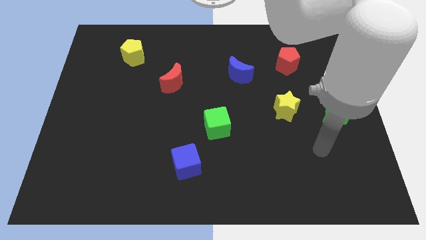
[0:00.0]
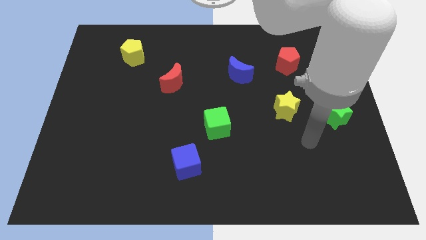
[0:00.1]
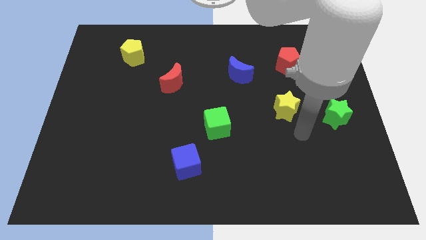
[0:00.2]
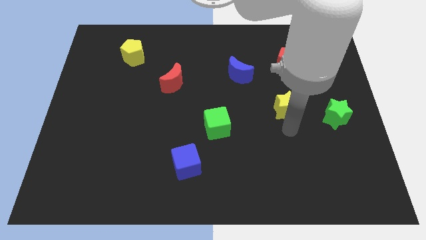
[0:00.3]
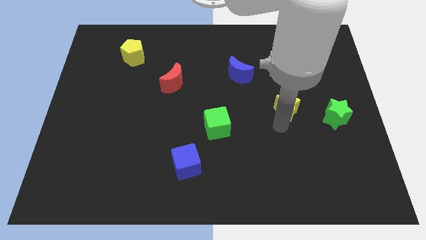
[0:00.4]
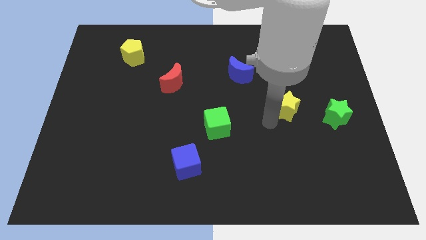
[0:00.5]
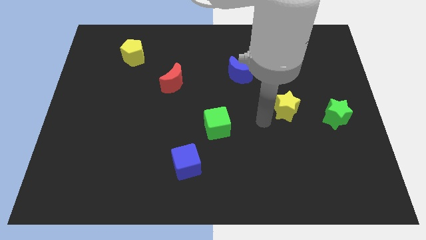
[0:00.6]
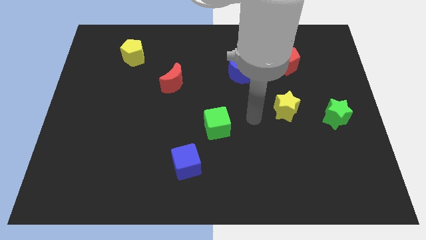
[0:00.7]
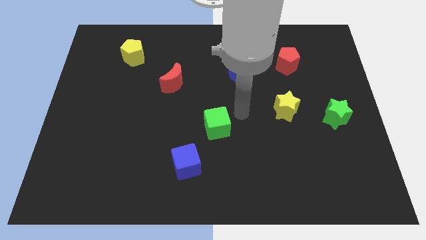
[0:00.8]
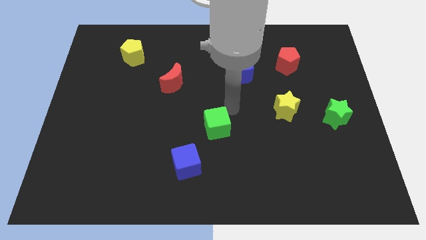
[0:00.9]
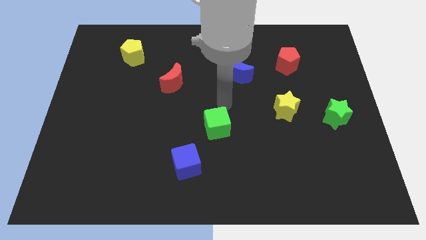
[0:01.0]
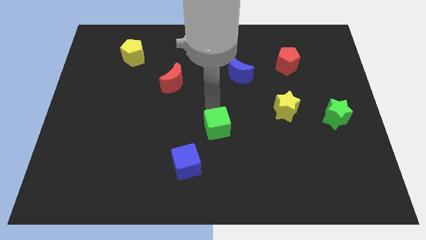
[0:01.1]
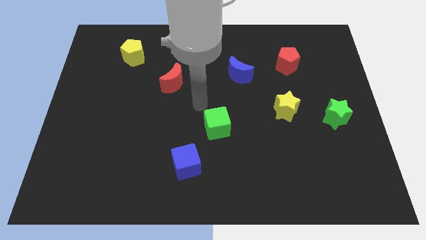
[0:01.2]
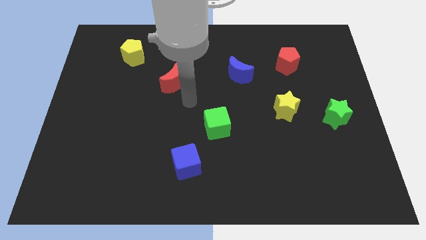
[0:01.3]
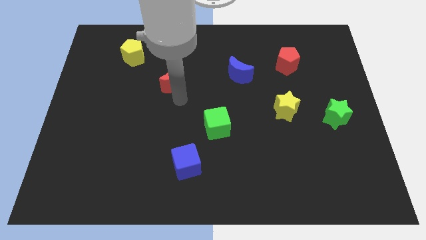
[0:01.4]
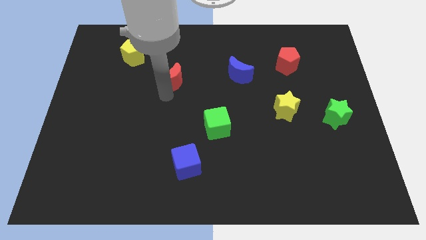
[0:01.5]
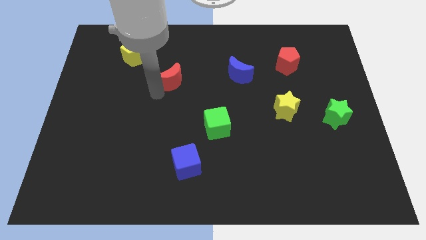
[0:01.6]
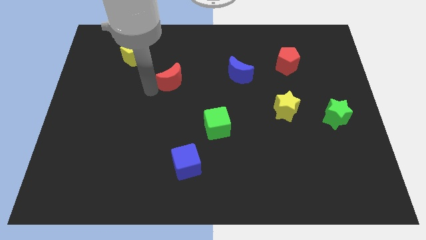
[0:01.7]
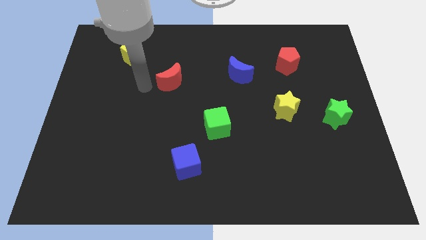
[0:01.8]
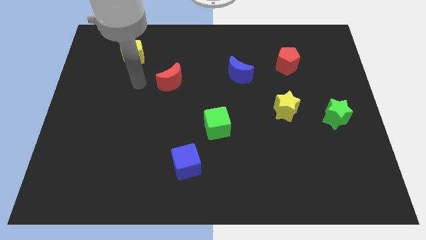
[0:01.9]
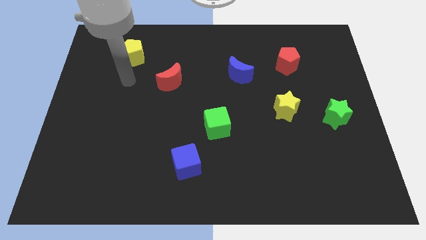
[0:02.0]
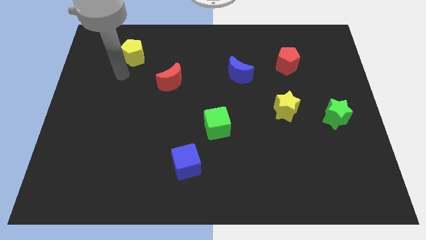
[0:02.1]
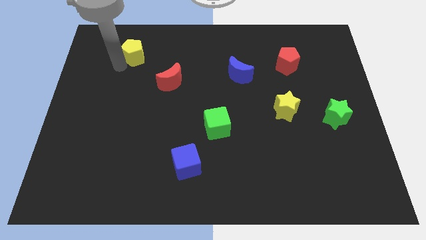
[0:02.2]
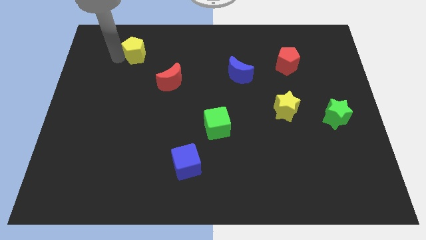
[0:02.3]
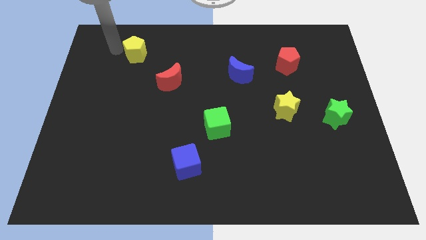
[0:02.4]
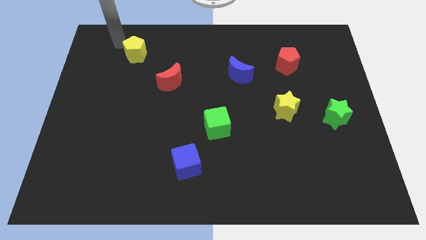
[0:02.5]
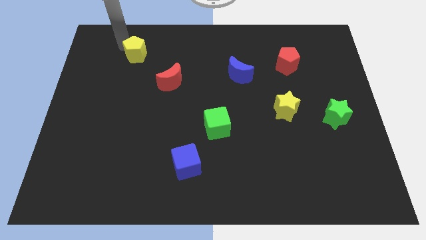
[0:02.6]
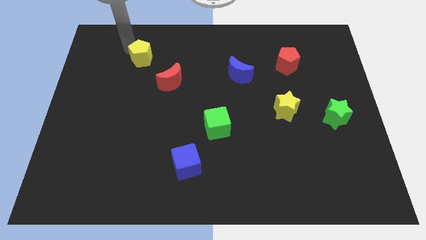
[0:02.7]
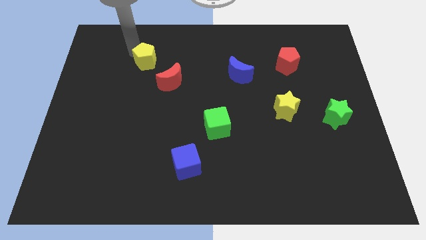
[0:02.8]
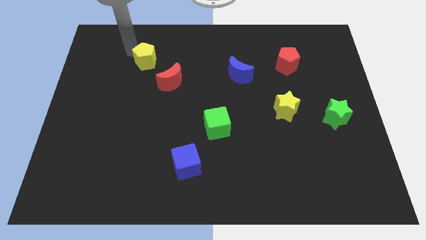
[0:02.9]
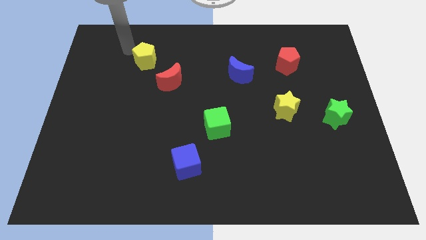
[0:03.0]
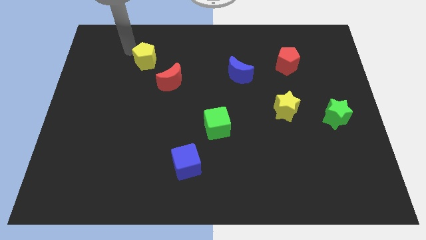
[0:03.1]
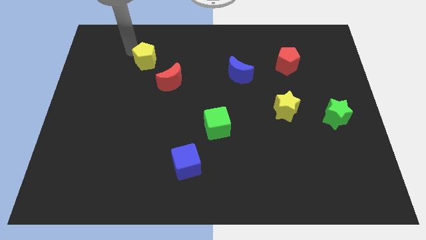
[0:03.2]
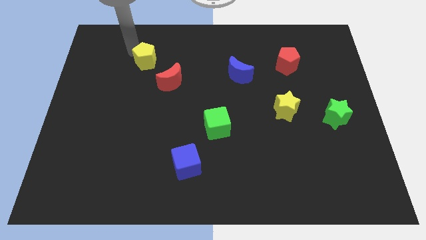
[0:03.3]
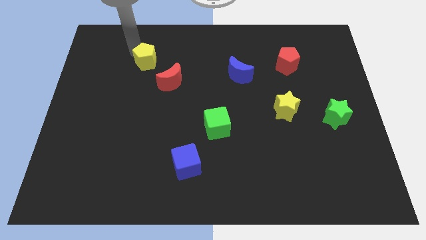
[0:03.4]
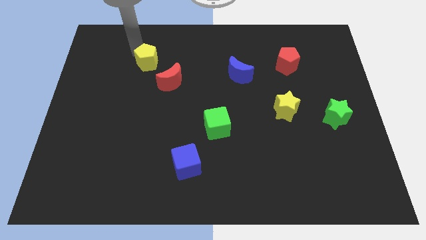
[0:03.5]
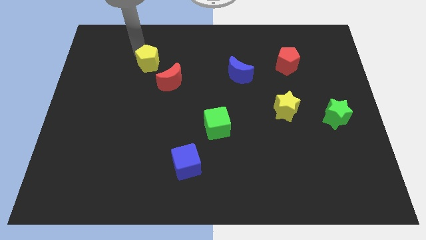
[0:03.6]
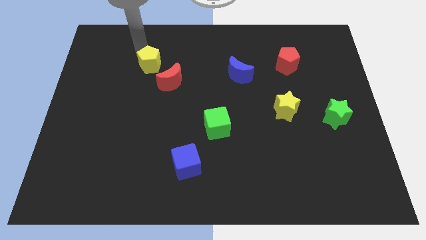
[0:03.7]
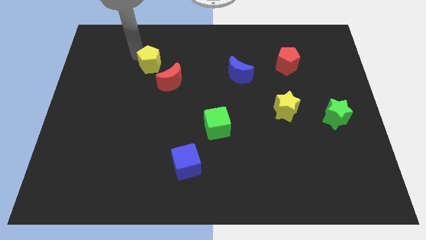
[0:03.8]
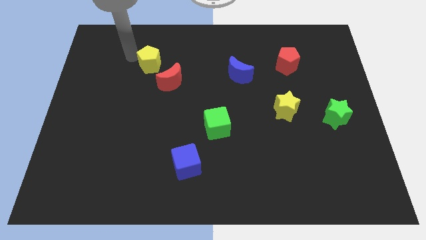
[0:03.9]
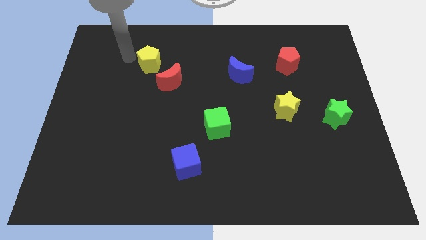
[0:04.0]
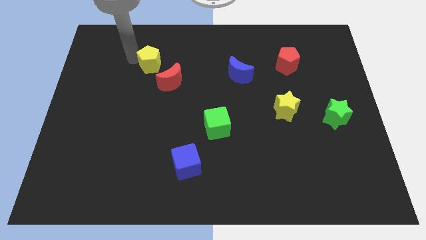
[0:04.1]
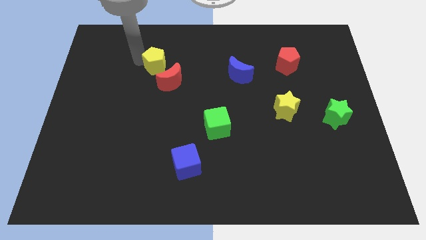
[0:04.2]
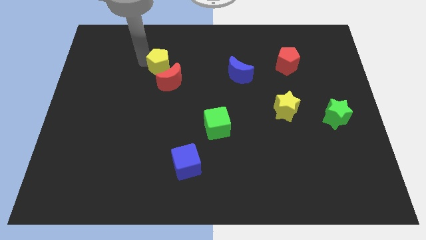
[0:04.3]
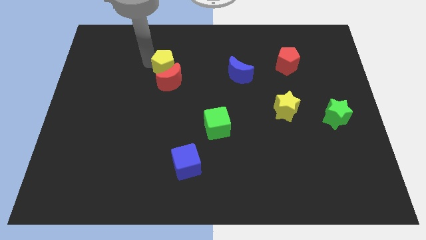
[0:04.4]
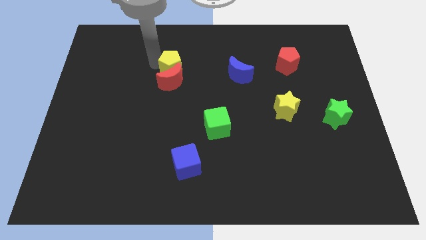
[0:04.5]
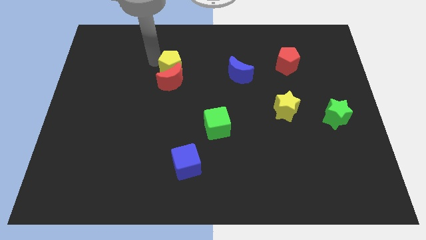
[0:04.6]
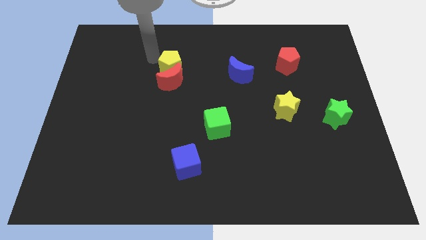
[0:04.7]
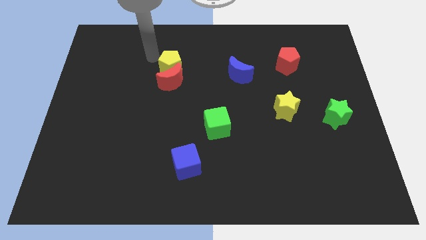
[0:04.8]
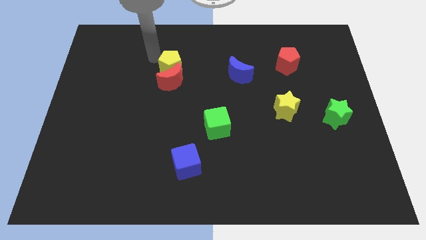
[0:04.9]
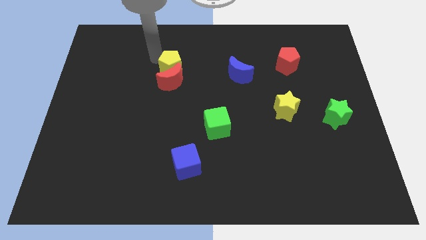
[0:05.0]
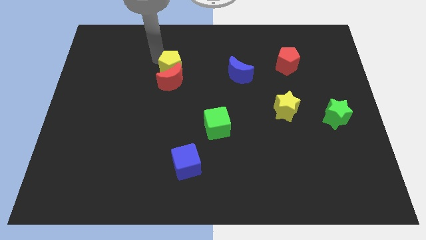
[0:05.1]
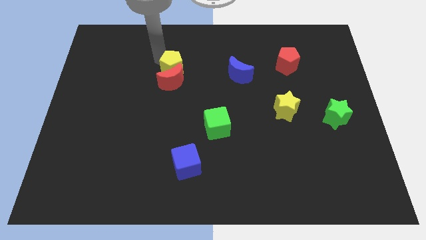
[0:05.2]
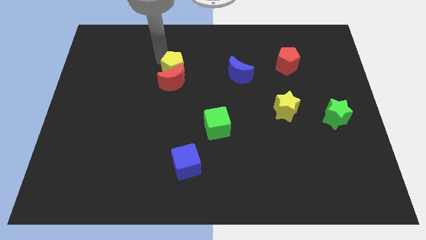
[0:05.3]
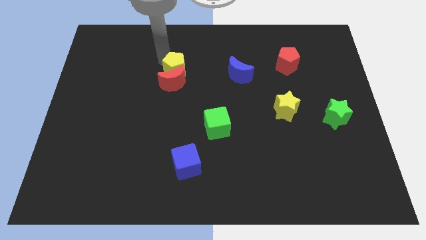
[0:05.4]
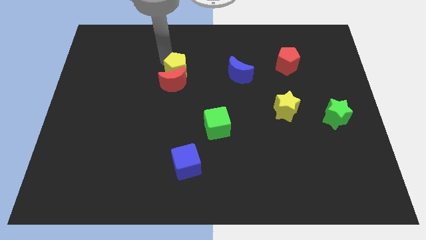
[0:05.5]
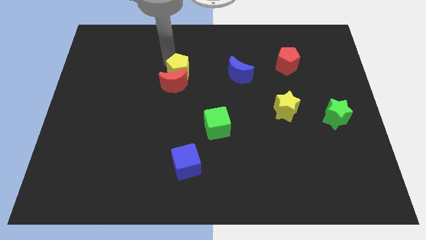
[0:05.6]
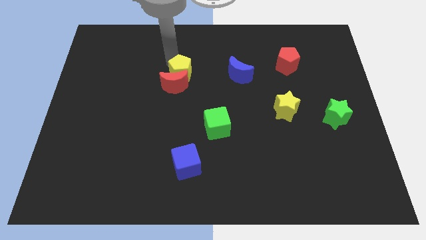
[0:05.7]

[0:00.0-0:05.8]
push the yellow pentagon to the center of the board

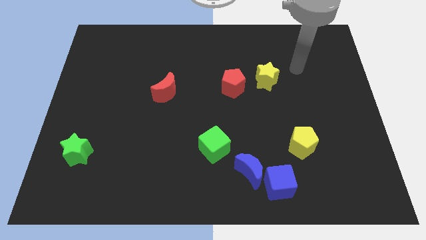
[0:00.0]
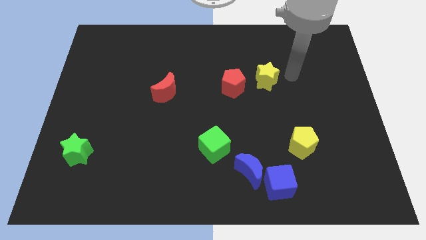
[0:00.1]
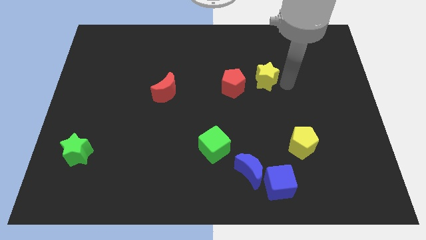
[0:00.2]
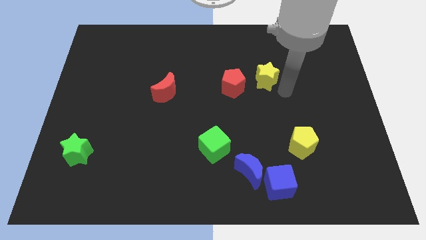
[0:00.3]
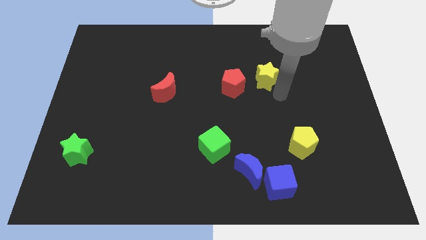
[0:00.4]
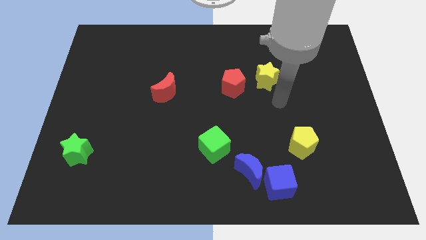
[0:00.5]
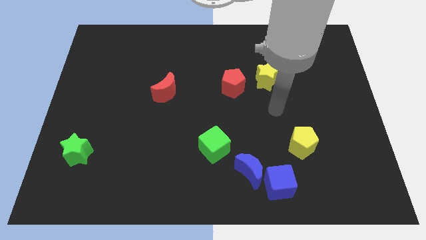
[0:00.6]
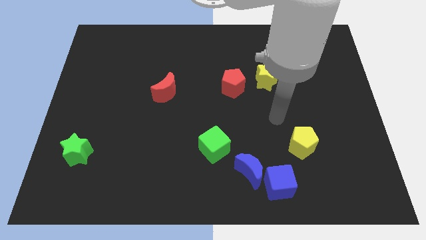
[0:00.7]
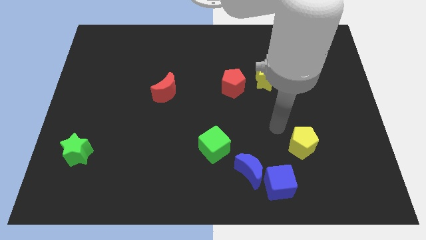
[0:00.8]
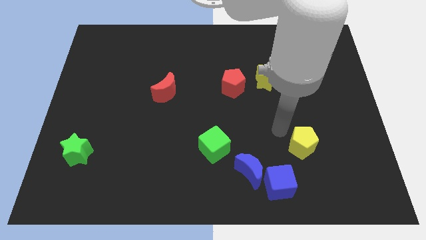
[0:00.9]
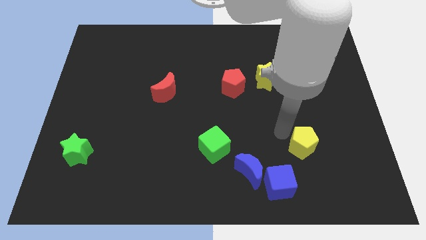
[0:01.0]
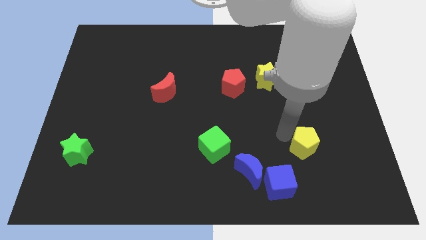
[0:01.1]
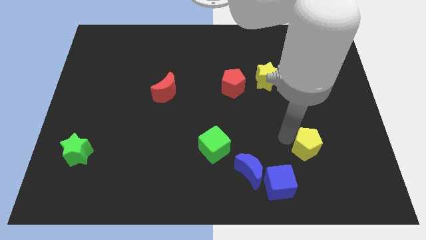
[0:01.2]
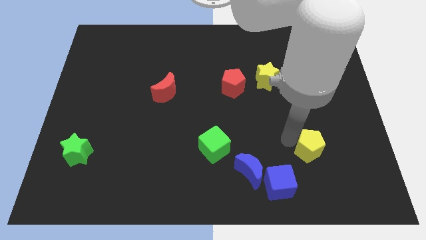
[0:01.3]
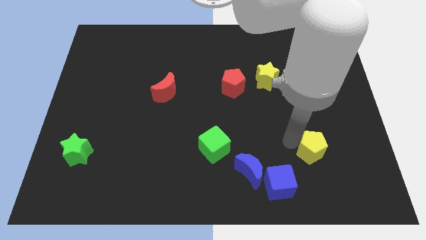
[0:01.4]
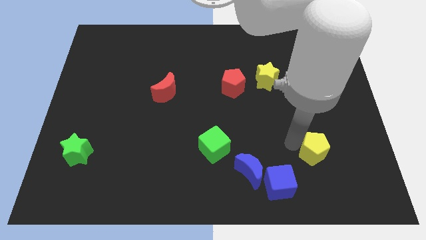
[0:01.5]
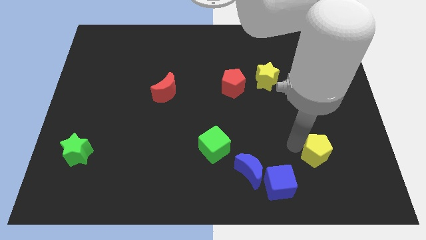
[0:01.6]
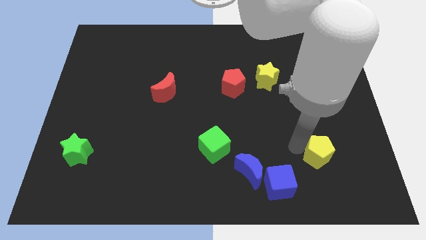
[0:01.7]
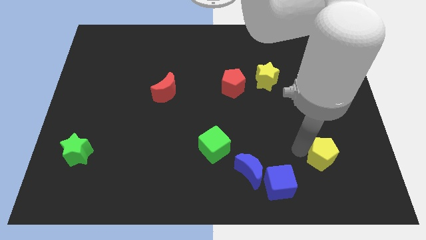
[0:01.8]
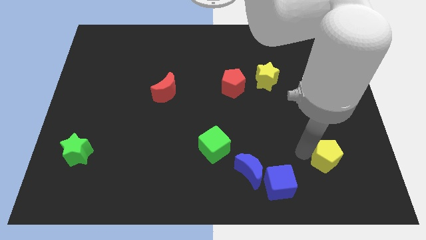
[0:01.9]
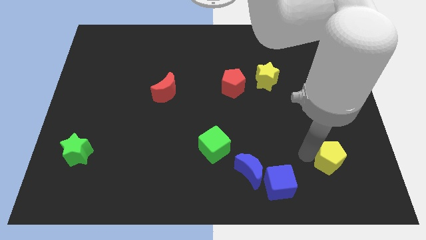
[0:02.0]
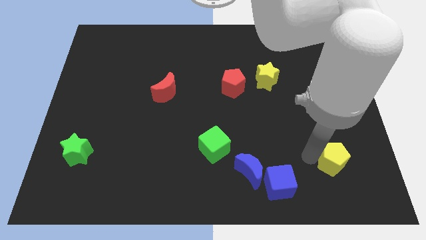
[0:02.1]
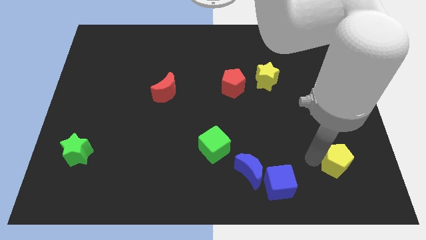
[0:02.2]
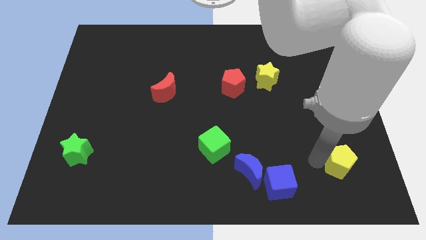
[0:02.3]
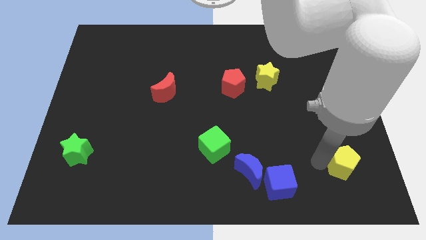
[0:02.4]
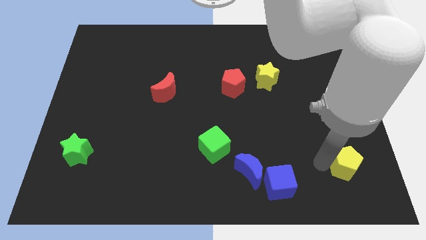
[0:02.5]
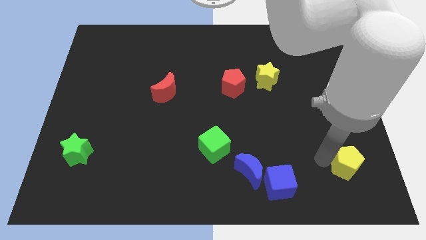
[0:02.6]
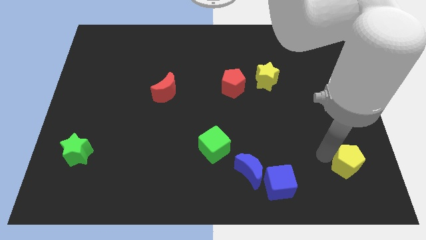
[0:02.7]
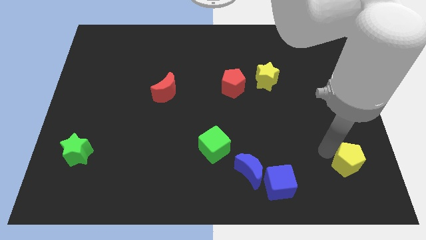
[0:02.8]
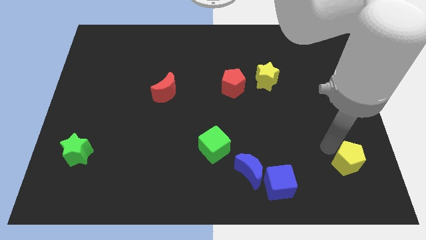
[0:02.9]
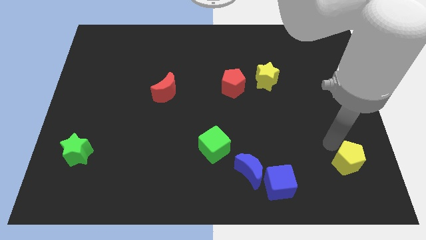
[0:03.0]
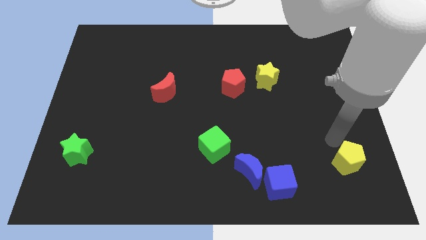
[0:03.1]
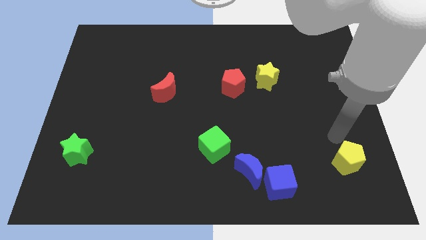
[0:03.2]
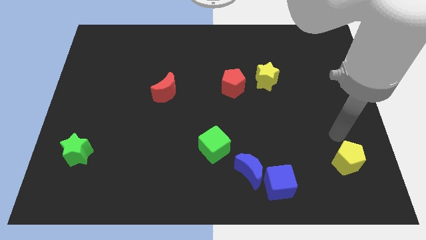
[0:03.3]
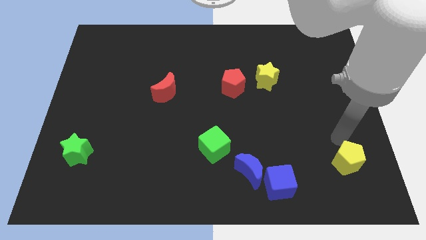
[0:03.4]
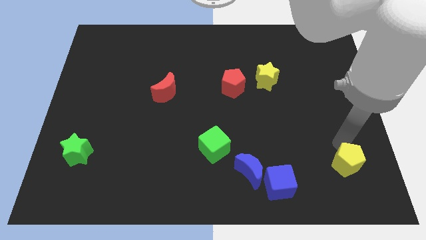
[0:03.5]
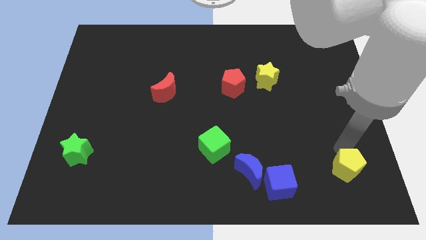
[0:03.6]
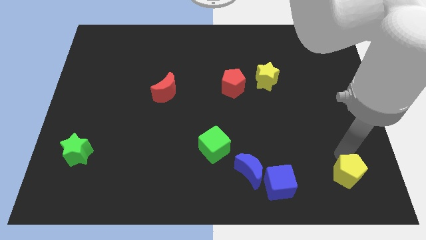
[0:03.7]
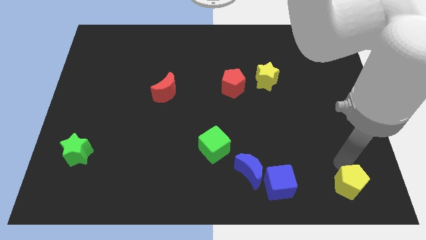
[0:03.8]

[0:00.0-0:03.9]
push the yellow pentagon to the lower right corner
